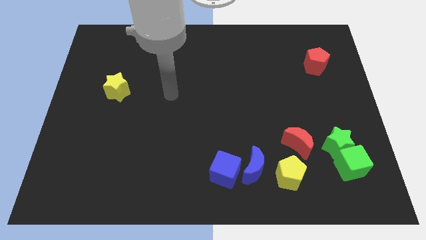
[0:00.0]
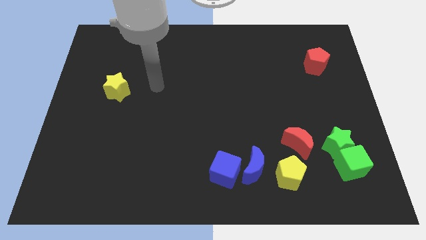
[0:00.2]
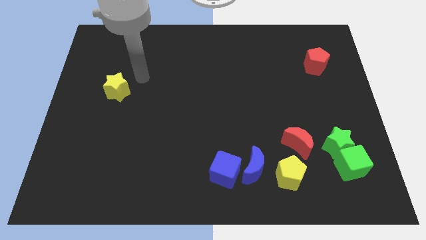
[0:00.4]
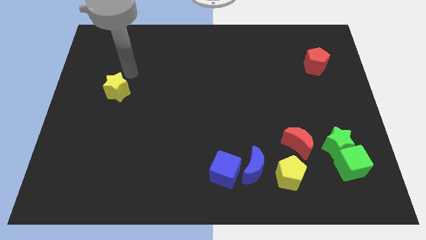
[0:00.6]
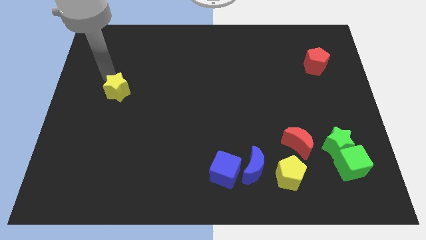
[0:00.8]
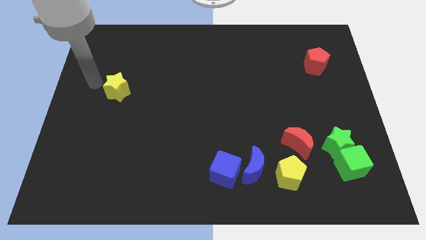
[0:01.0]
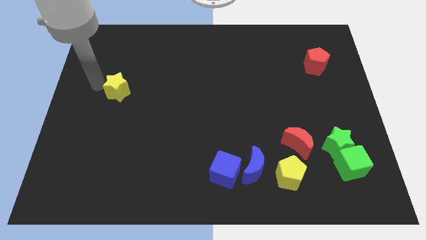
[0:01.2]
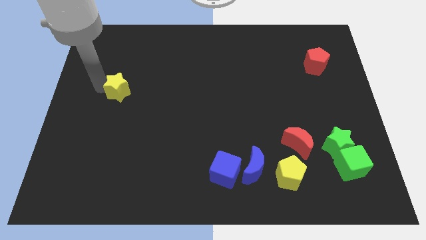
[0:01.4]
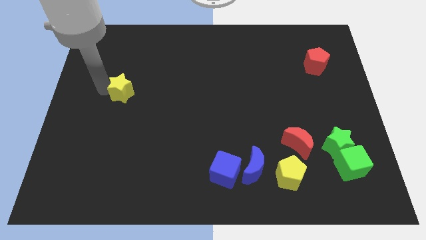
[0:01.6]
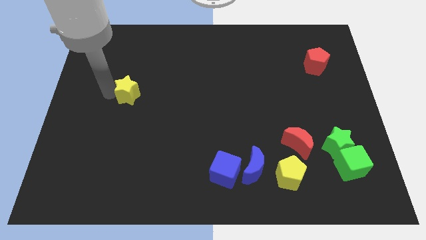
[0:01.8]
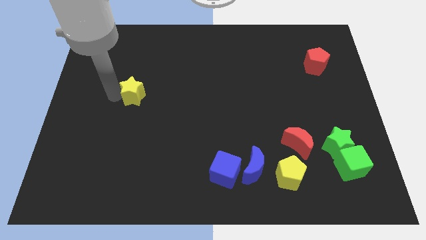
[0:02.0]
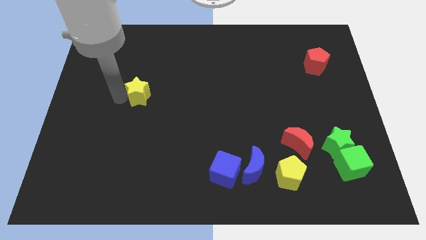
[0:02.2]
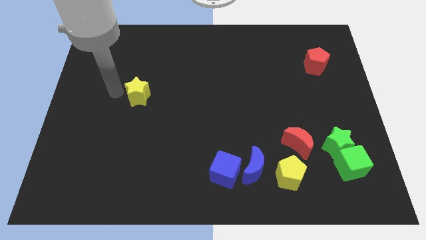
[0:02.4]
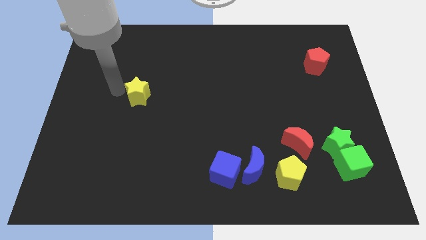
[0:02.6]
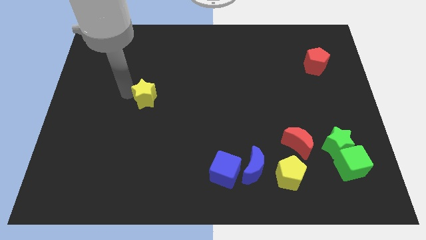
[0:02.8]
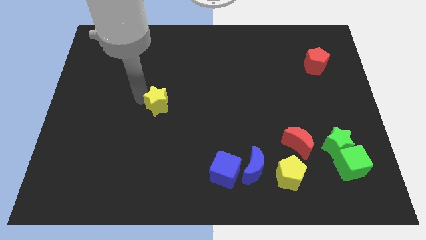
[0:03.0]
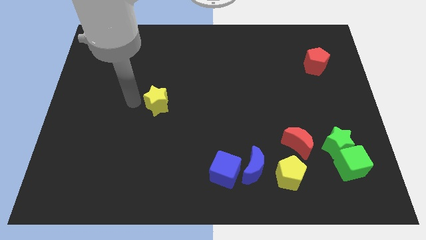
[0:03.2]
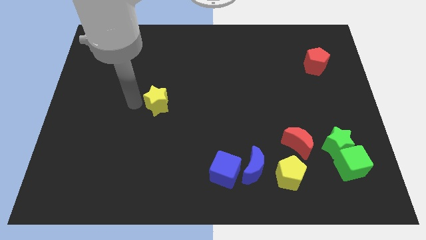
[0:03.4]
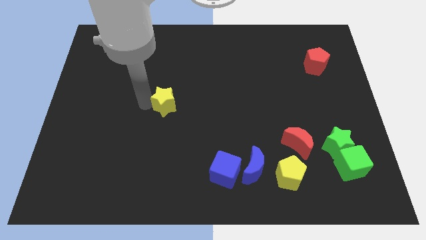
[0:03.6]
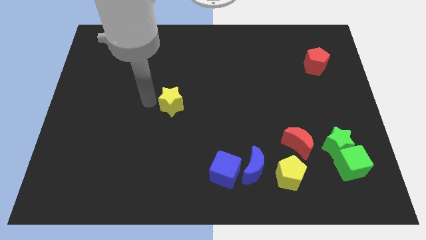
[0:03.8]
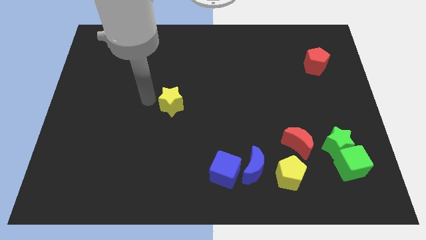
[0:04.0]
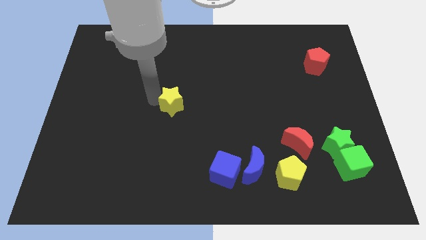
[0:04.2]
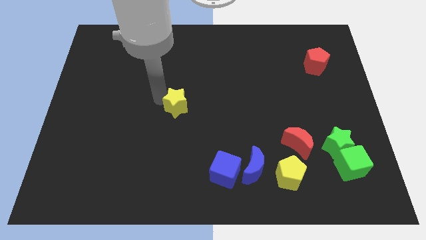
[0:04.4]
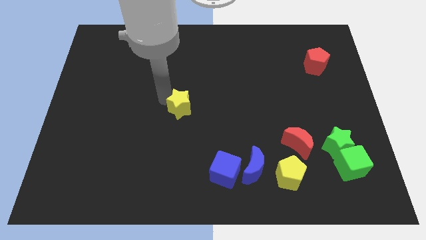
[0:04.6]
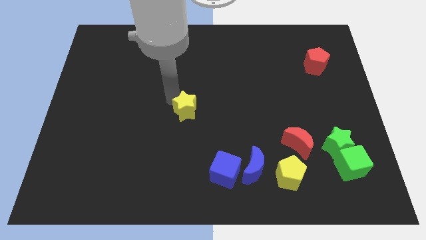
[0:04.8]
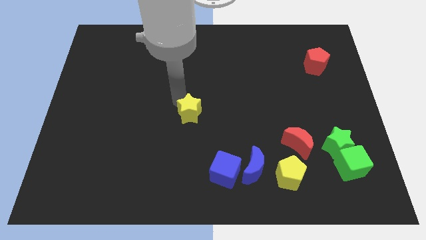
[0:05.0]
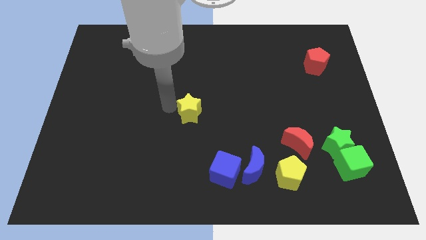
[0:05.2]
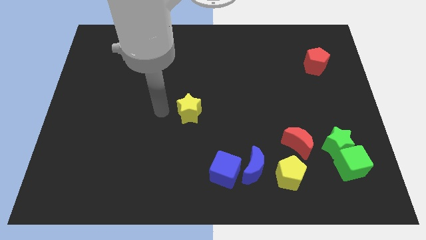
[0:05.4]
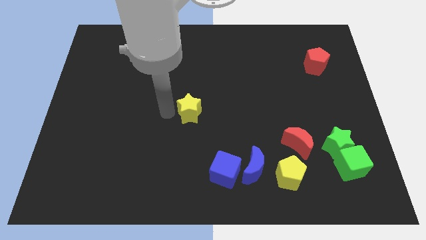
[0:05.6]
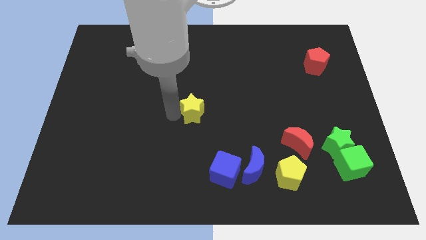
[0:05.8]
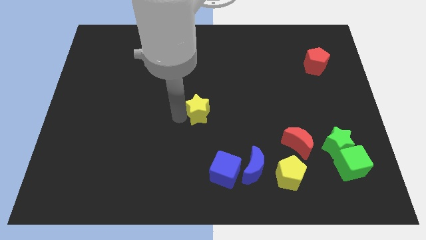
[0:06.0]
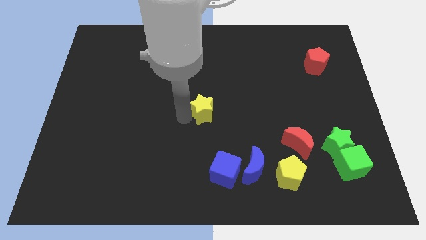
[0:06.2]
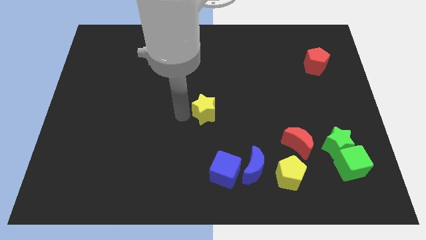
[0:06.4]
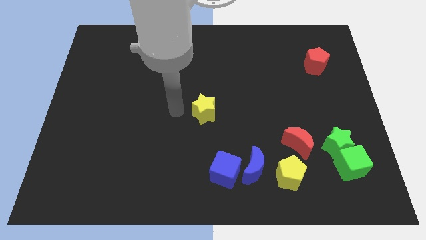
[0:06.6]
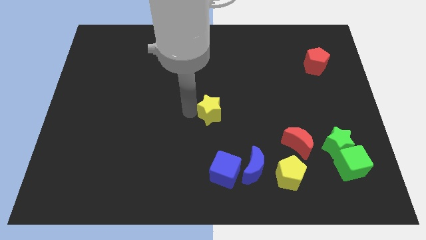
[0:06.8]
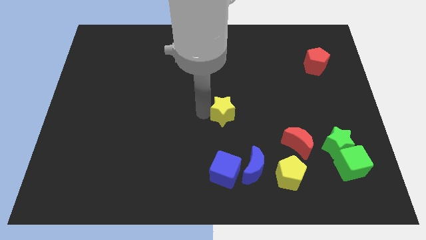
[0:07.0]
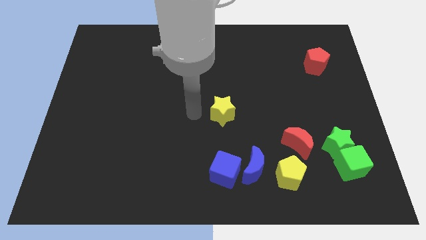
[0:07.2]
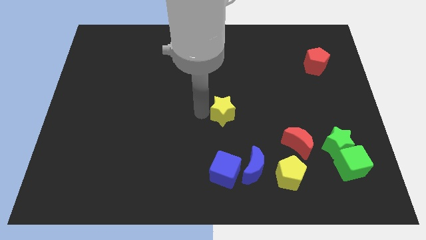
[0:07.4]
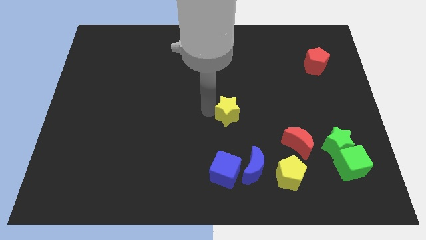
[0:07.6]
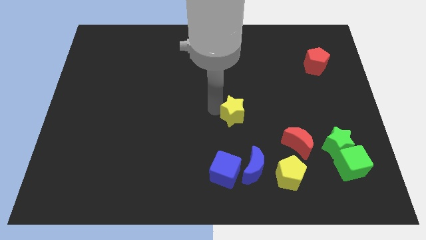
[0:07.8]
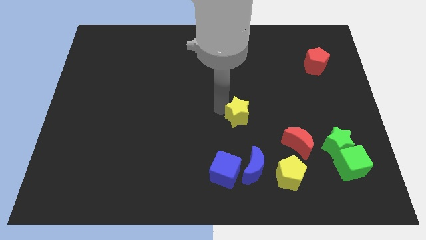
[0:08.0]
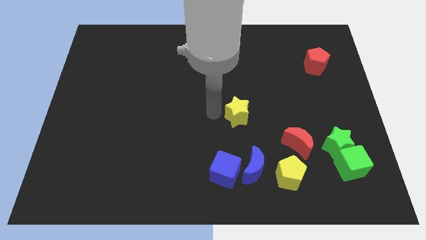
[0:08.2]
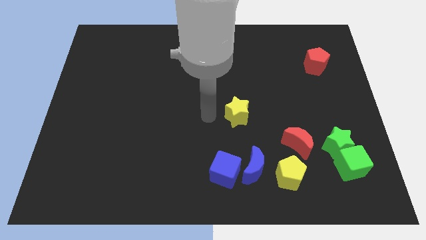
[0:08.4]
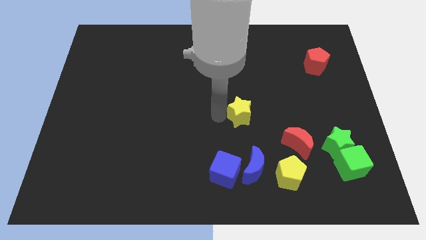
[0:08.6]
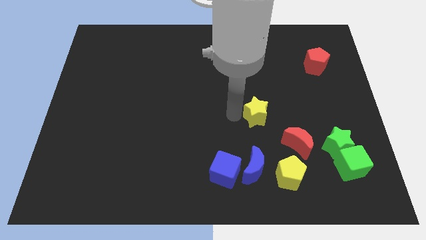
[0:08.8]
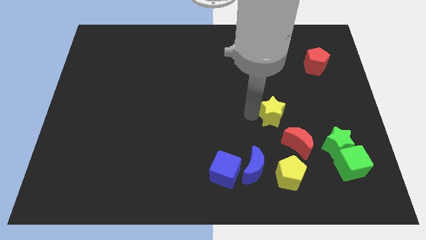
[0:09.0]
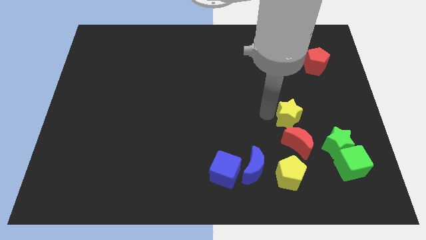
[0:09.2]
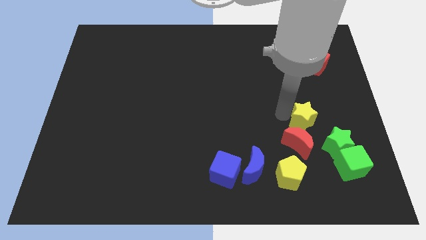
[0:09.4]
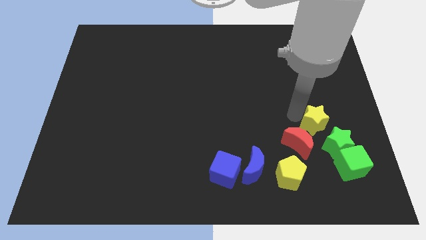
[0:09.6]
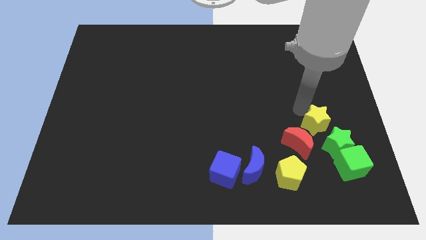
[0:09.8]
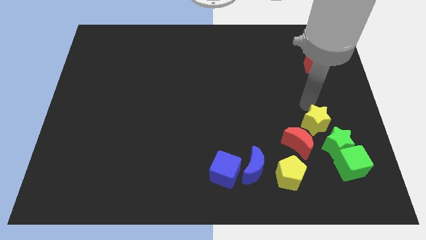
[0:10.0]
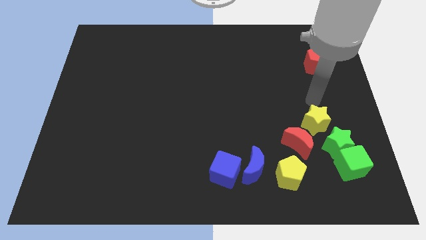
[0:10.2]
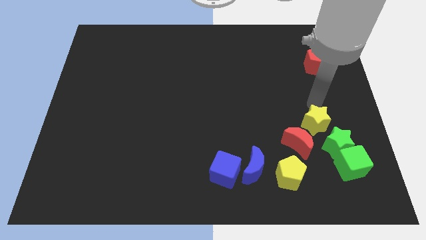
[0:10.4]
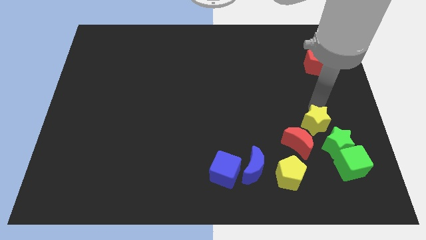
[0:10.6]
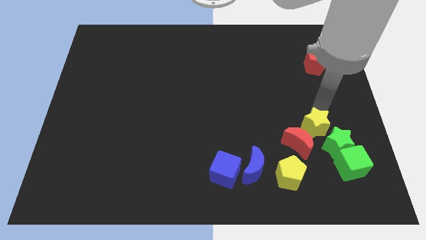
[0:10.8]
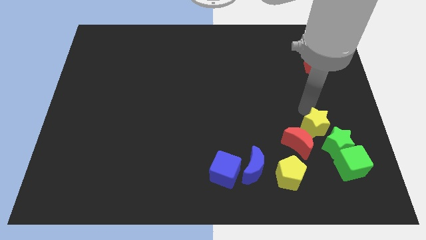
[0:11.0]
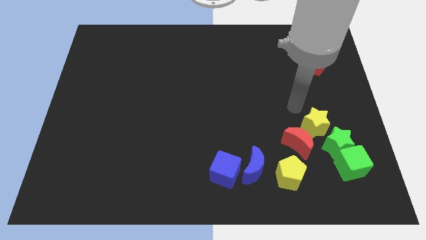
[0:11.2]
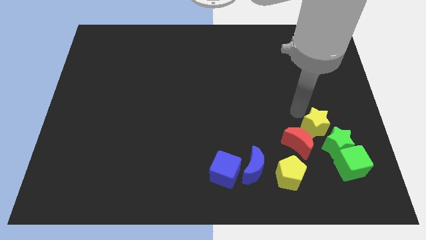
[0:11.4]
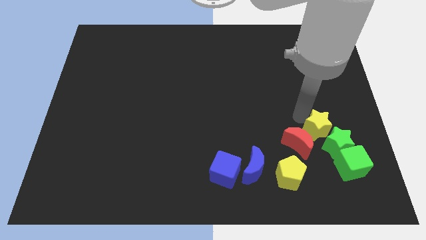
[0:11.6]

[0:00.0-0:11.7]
put the yellow star to the green star

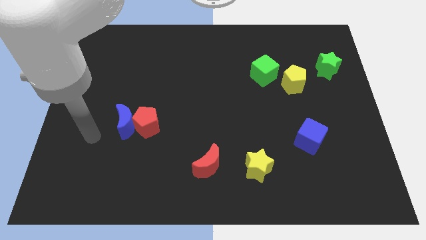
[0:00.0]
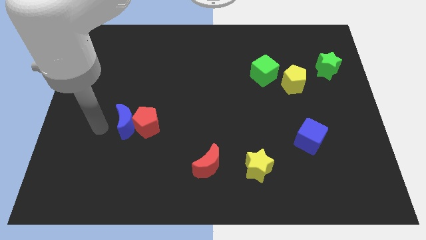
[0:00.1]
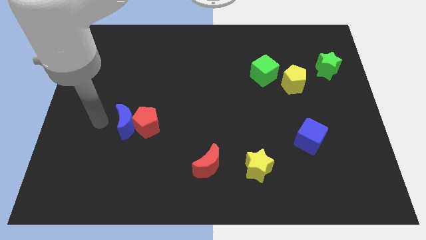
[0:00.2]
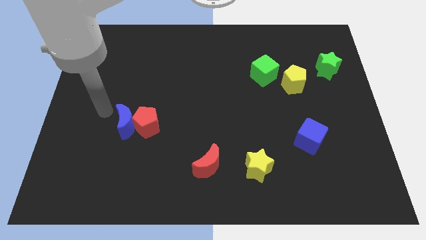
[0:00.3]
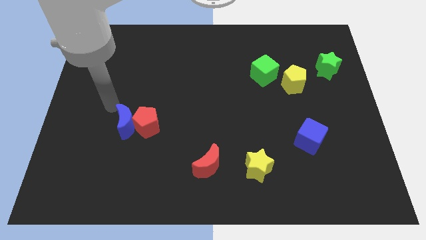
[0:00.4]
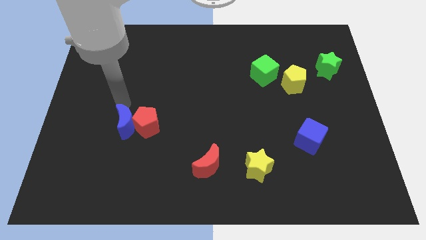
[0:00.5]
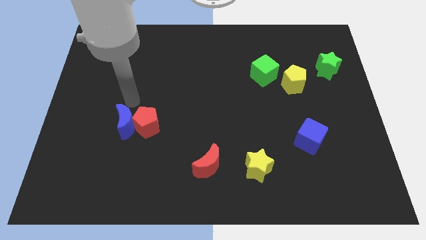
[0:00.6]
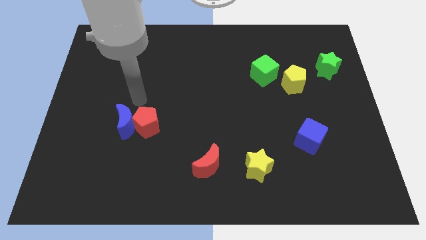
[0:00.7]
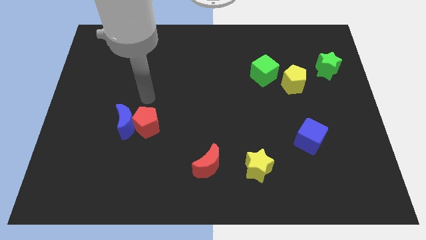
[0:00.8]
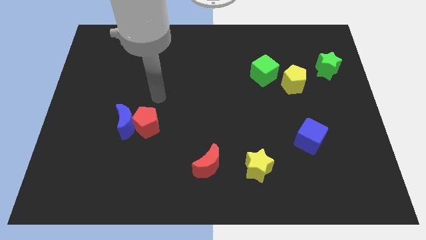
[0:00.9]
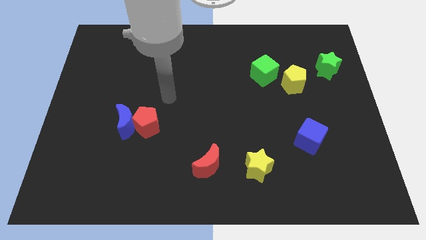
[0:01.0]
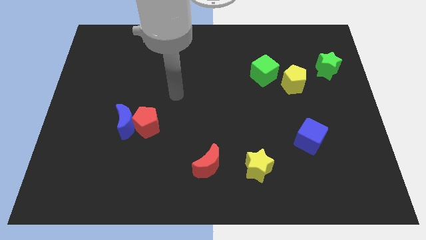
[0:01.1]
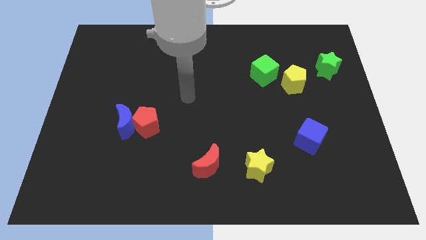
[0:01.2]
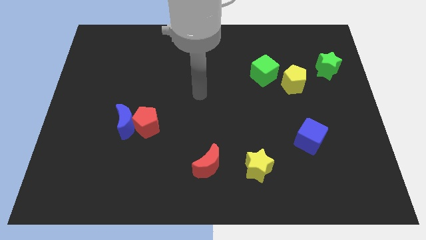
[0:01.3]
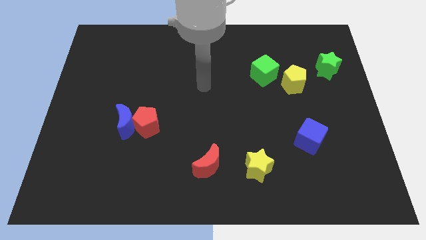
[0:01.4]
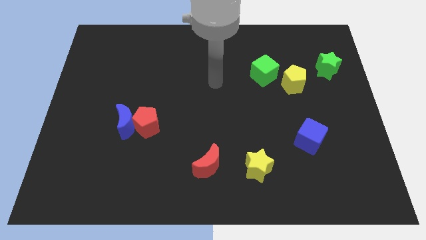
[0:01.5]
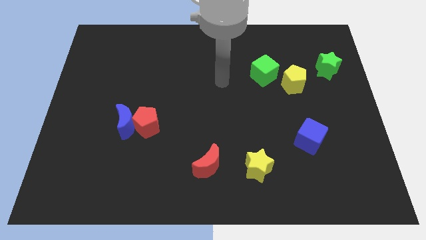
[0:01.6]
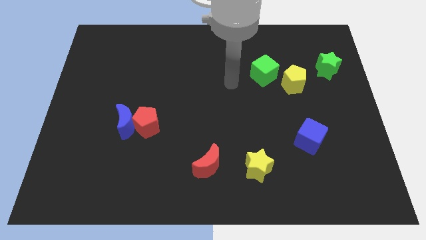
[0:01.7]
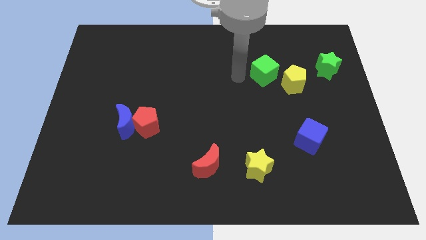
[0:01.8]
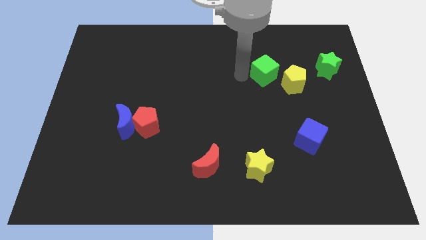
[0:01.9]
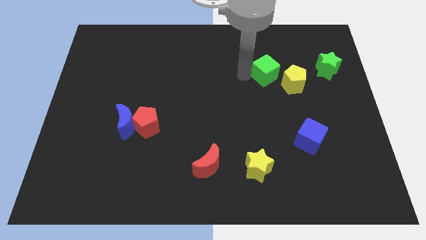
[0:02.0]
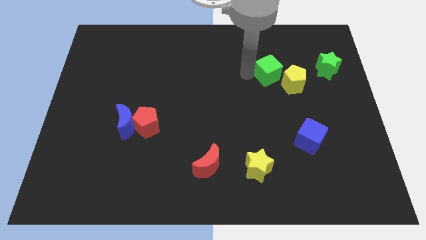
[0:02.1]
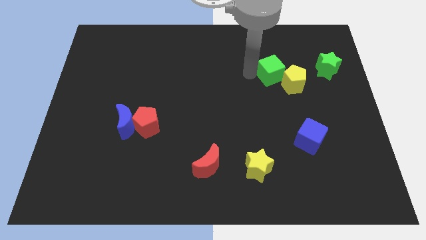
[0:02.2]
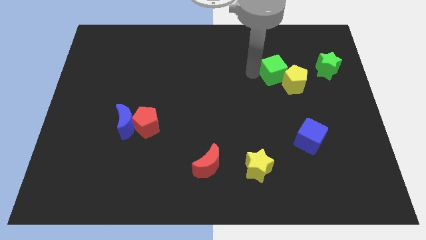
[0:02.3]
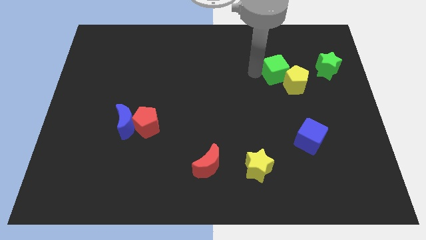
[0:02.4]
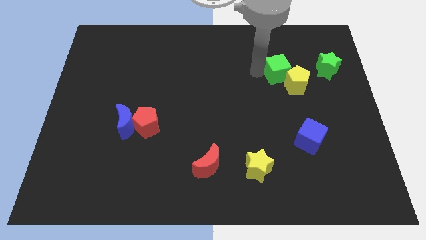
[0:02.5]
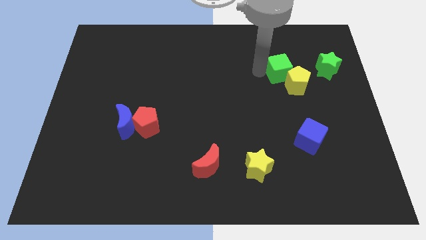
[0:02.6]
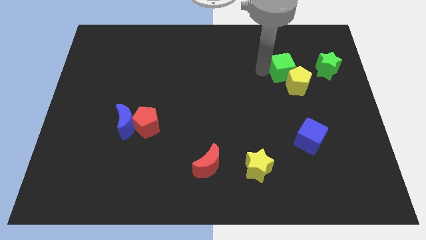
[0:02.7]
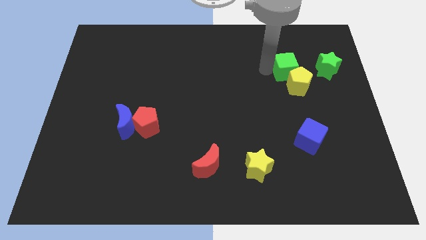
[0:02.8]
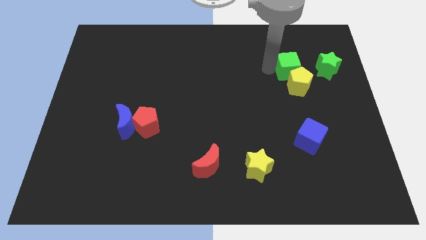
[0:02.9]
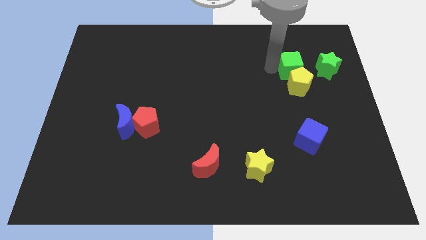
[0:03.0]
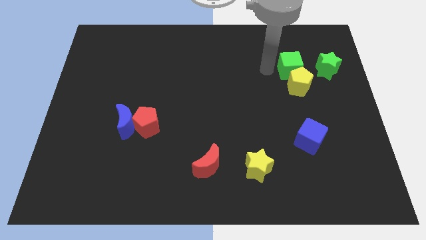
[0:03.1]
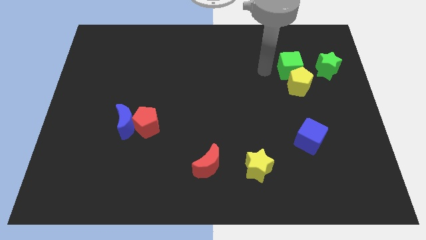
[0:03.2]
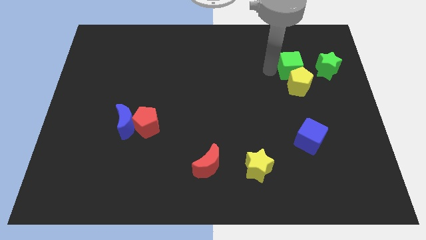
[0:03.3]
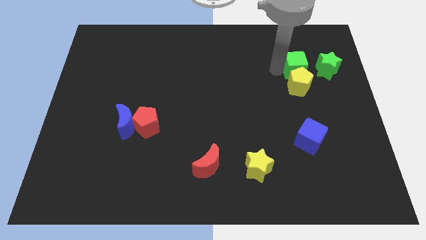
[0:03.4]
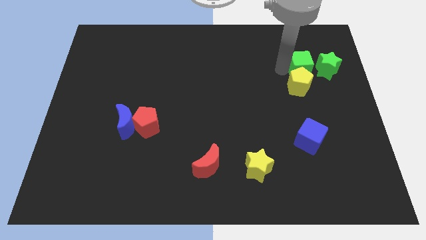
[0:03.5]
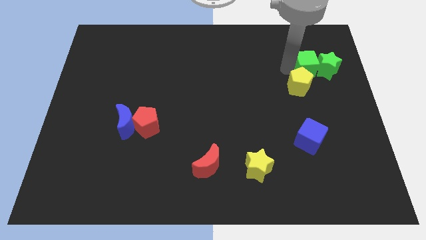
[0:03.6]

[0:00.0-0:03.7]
move the green cube next to the green star
